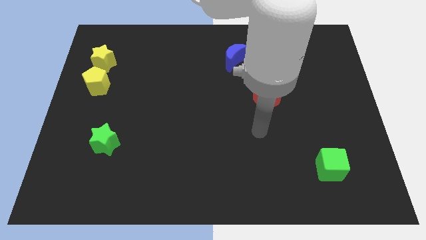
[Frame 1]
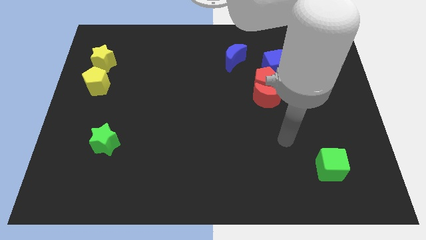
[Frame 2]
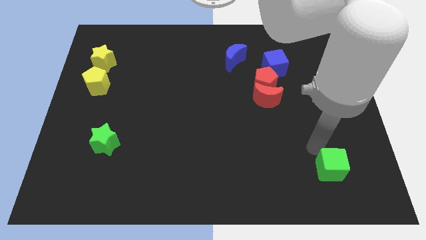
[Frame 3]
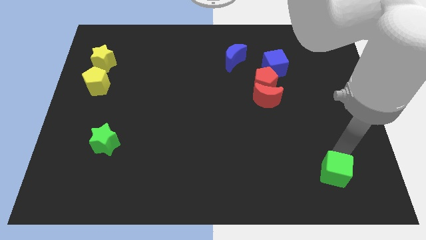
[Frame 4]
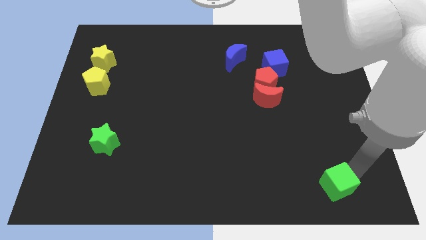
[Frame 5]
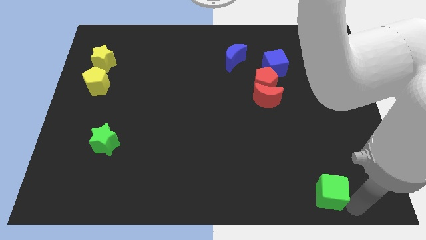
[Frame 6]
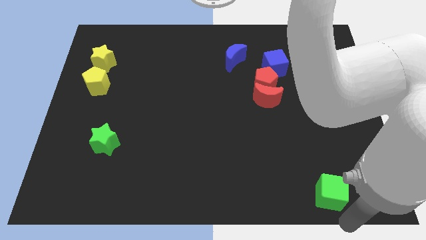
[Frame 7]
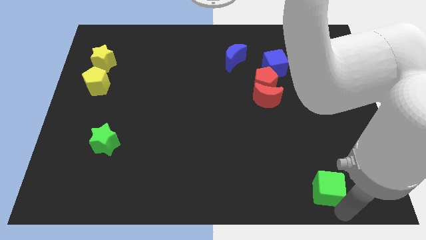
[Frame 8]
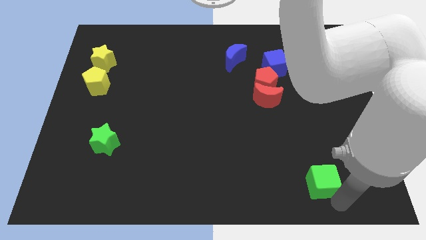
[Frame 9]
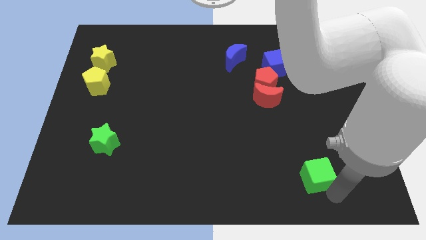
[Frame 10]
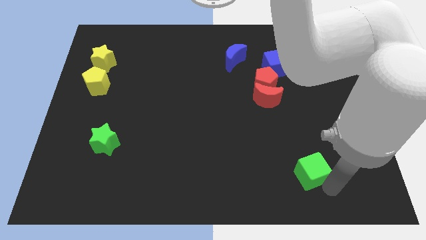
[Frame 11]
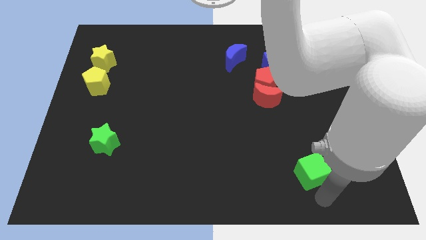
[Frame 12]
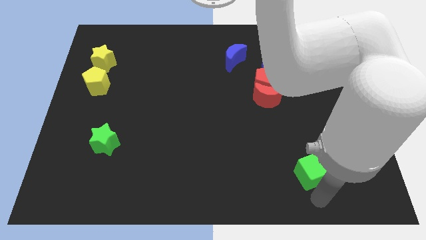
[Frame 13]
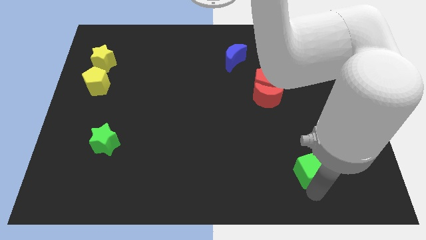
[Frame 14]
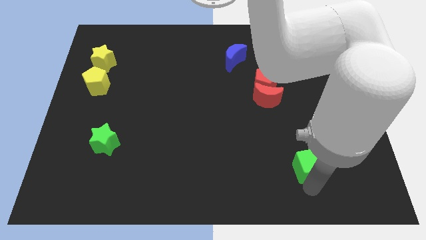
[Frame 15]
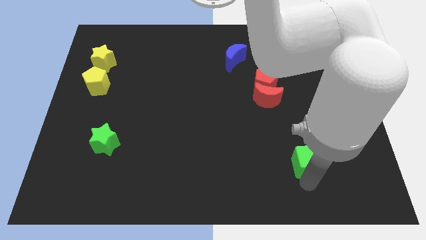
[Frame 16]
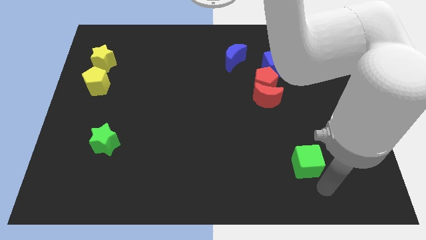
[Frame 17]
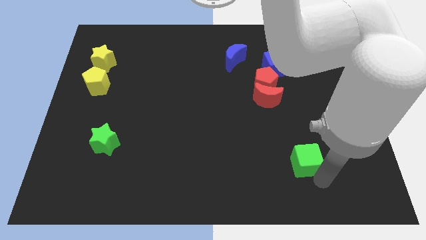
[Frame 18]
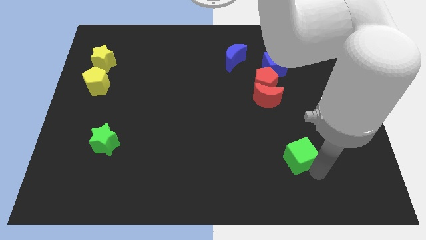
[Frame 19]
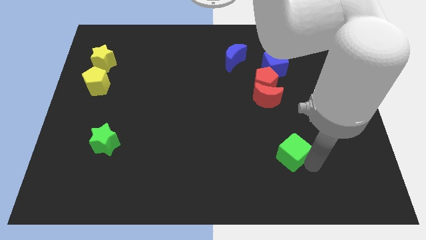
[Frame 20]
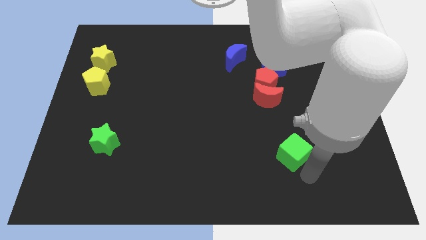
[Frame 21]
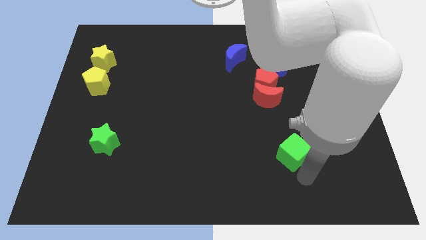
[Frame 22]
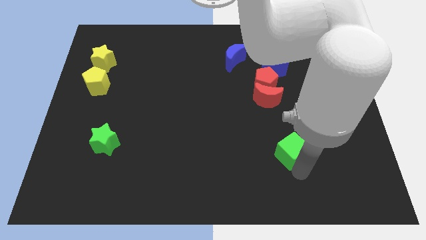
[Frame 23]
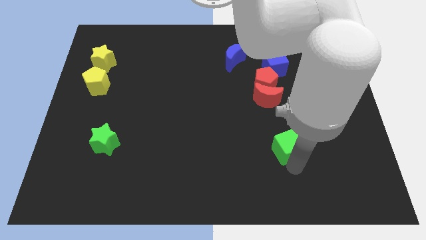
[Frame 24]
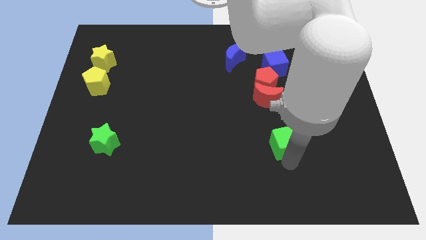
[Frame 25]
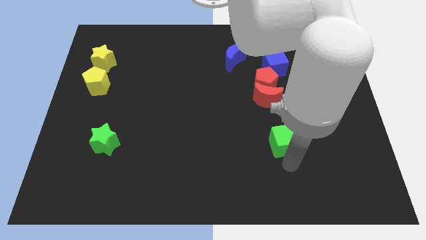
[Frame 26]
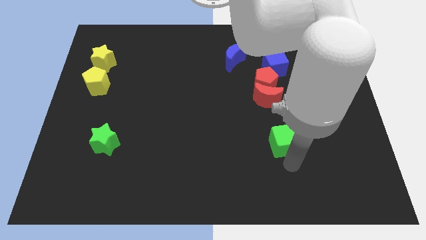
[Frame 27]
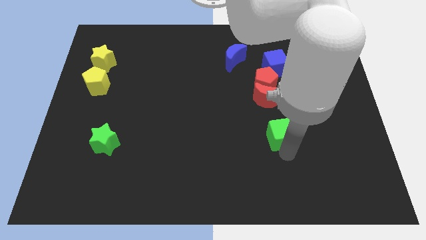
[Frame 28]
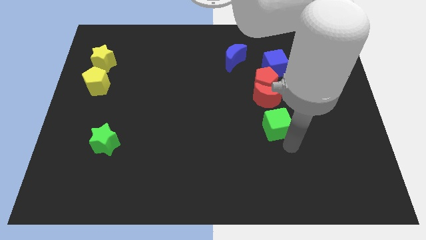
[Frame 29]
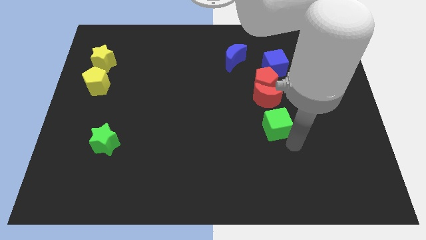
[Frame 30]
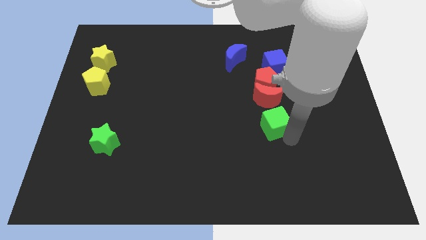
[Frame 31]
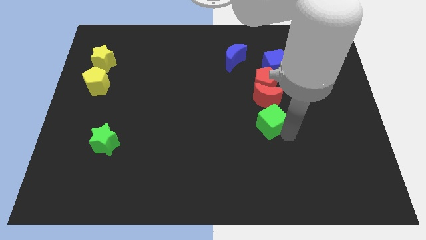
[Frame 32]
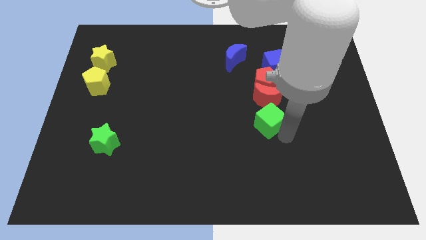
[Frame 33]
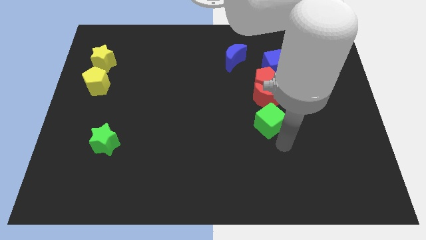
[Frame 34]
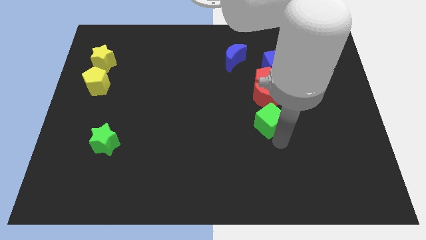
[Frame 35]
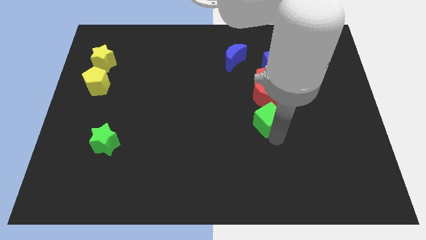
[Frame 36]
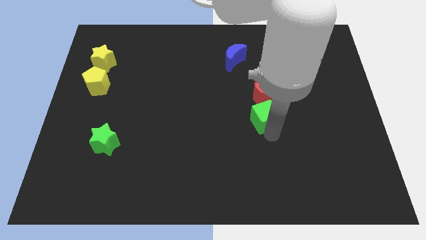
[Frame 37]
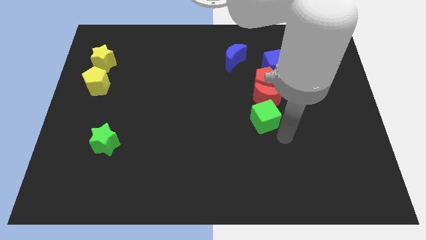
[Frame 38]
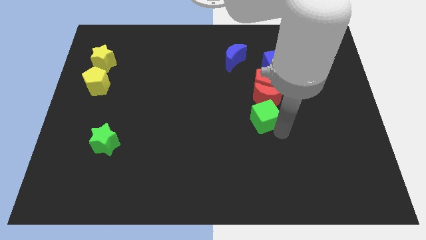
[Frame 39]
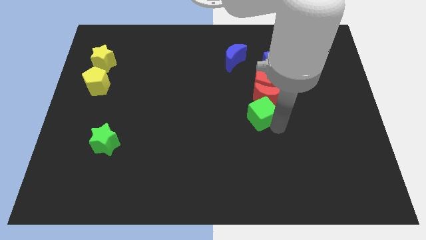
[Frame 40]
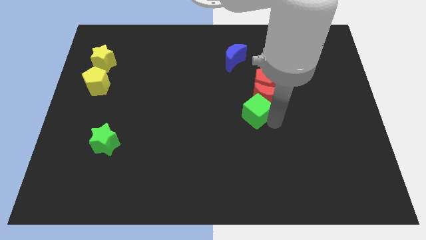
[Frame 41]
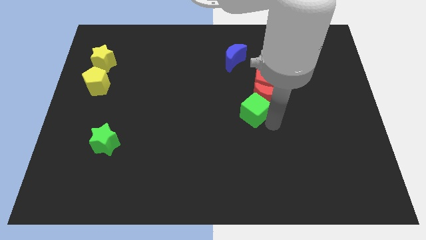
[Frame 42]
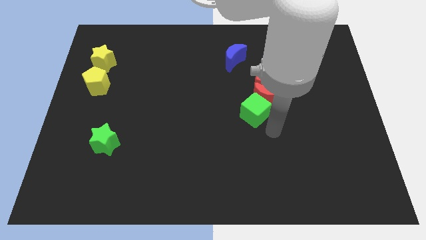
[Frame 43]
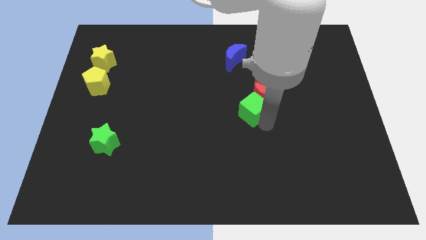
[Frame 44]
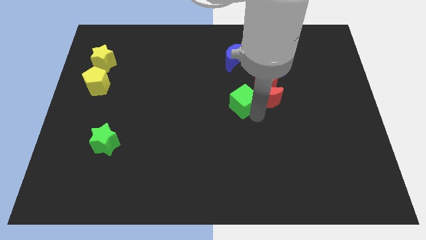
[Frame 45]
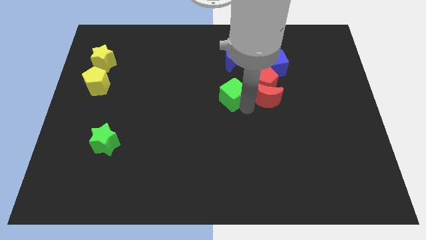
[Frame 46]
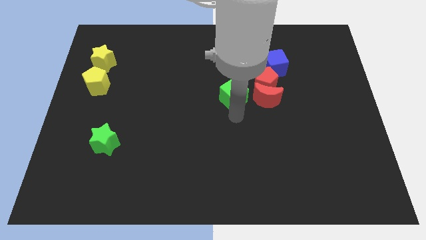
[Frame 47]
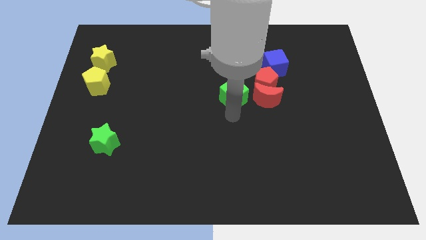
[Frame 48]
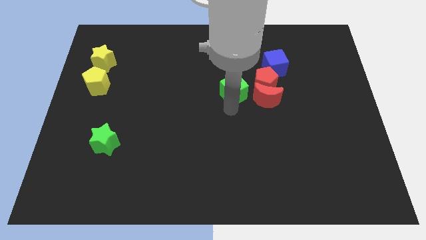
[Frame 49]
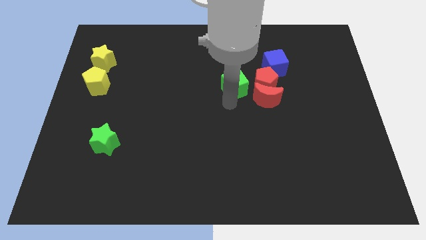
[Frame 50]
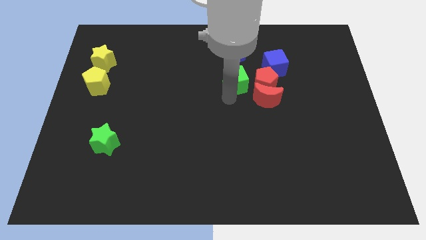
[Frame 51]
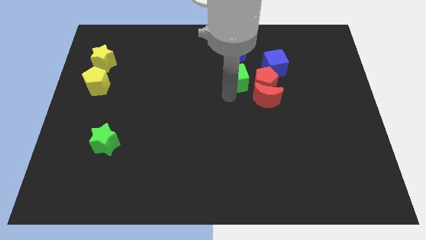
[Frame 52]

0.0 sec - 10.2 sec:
slide the green cube just left of the blue cube

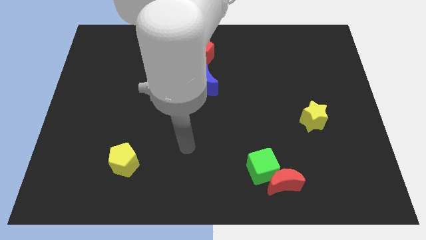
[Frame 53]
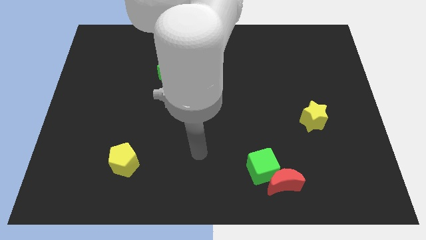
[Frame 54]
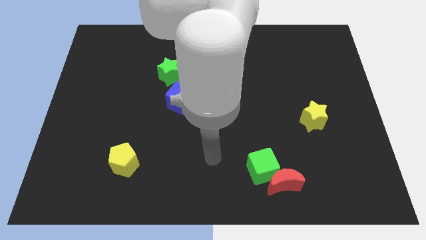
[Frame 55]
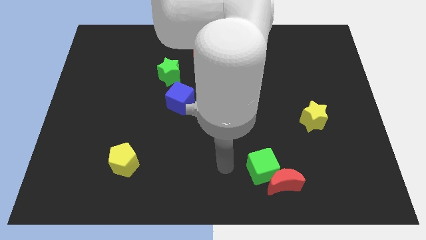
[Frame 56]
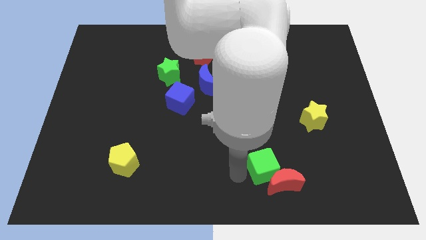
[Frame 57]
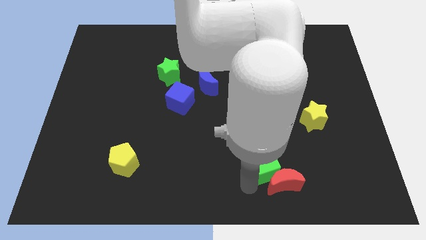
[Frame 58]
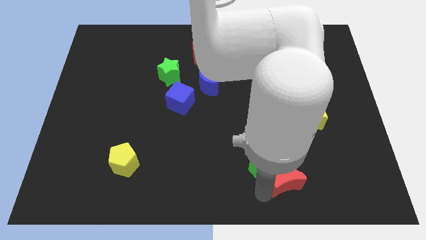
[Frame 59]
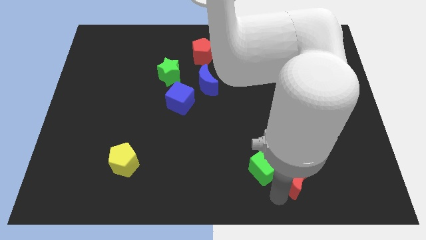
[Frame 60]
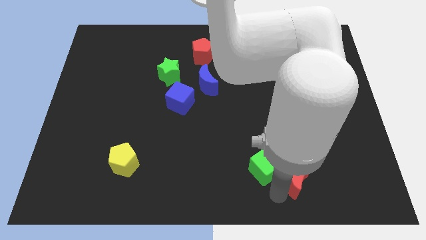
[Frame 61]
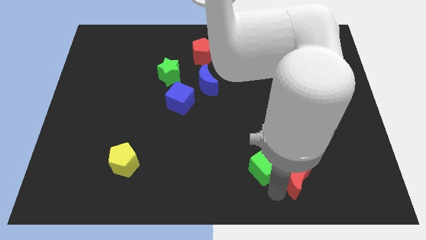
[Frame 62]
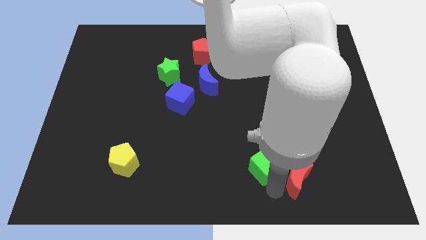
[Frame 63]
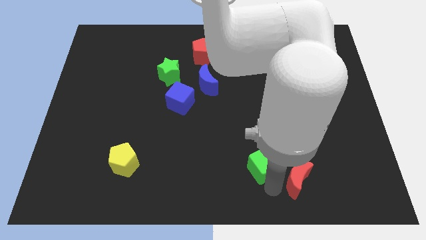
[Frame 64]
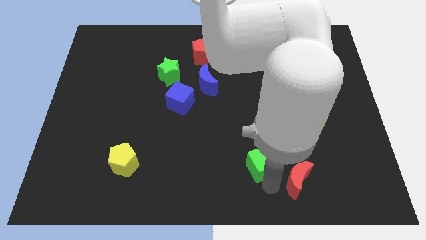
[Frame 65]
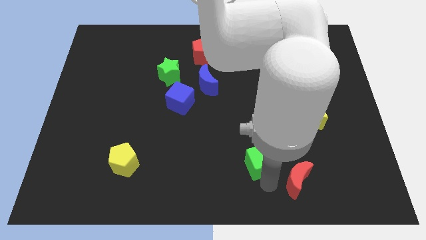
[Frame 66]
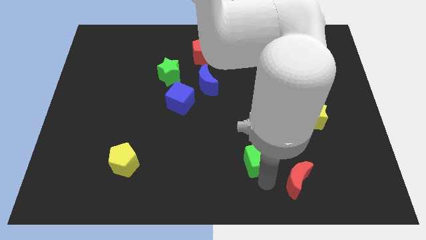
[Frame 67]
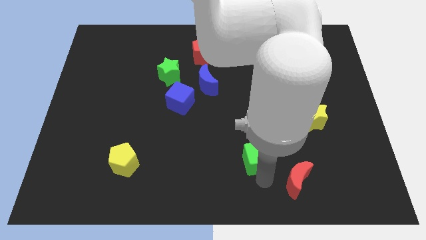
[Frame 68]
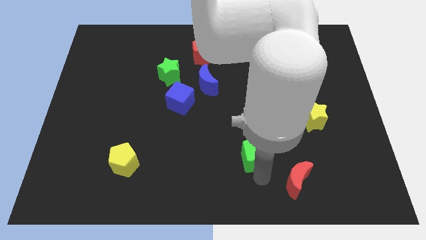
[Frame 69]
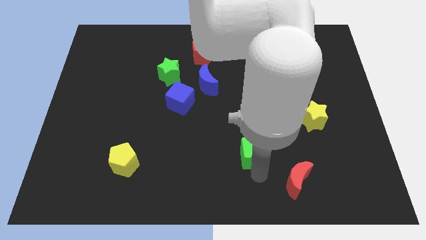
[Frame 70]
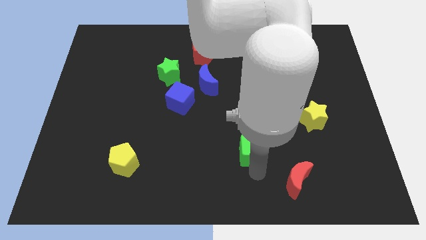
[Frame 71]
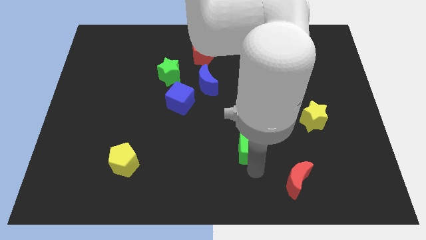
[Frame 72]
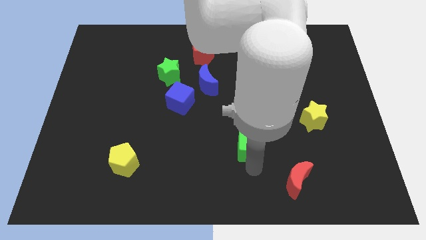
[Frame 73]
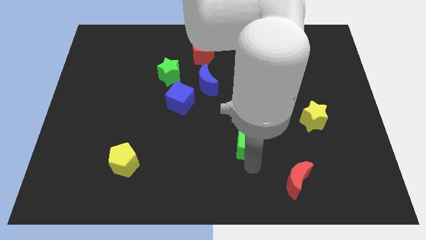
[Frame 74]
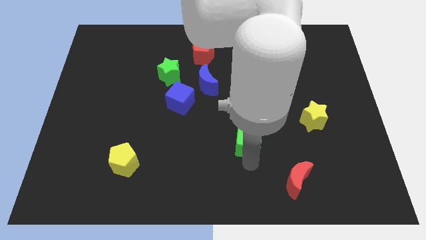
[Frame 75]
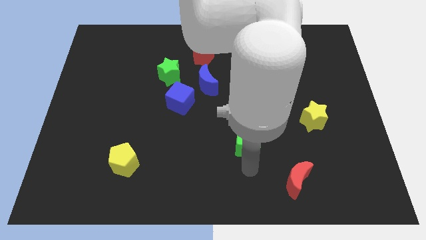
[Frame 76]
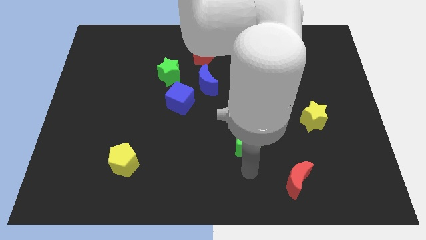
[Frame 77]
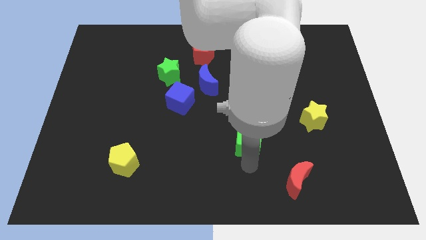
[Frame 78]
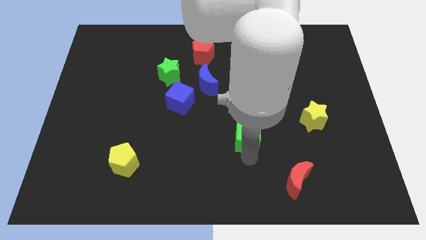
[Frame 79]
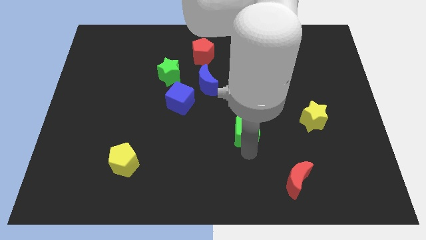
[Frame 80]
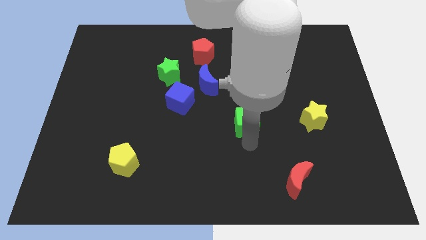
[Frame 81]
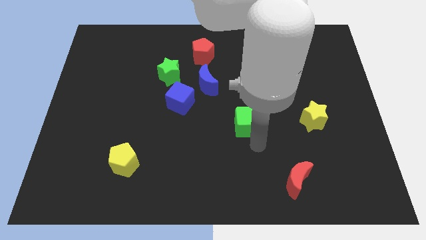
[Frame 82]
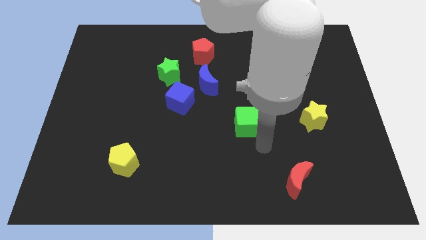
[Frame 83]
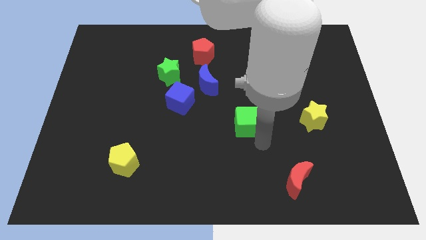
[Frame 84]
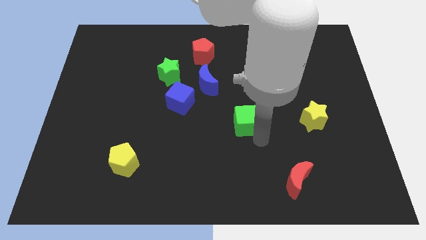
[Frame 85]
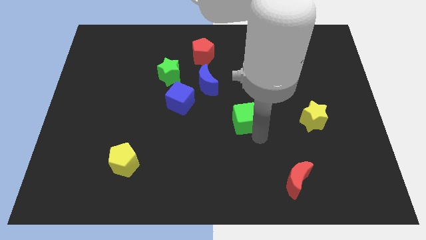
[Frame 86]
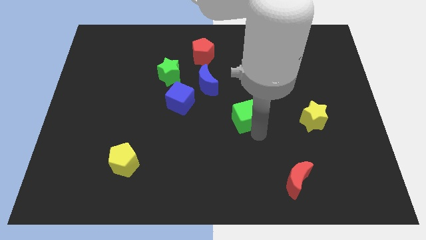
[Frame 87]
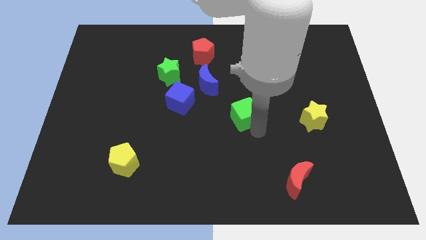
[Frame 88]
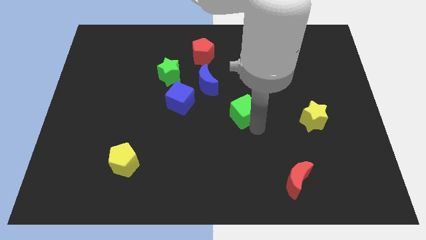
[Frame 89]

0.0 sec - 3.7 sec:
slide the green cube diagonally down and to the right of the blue moon
